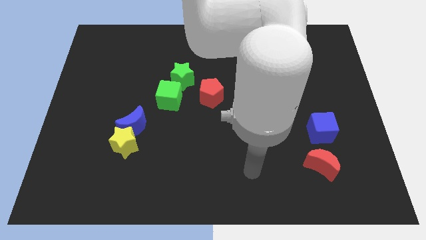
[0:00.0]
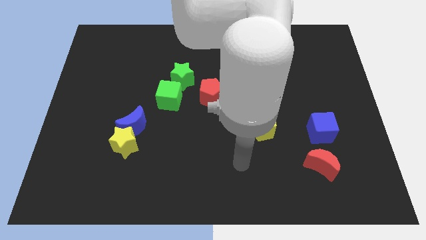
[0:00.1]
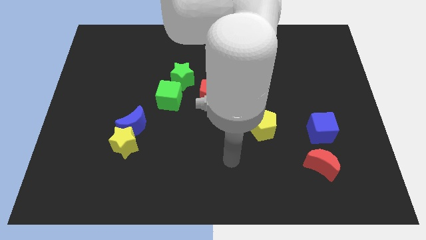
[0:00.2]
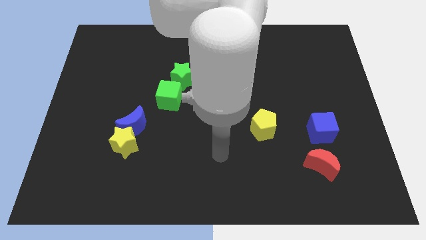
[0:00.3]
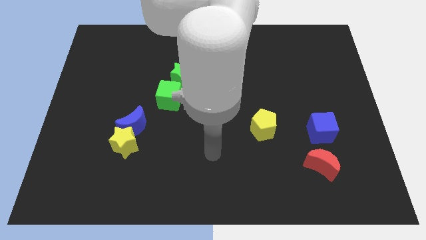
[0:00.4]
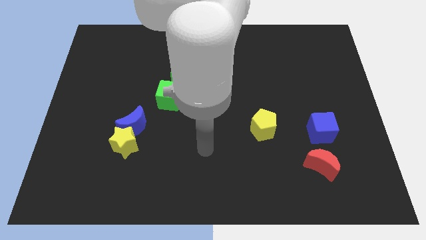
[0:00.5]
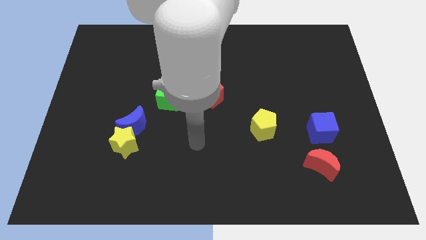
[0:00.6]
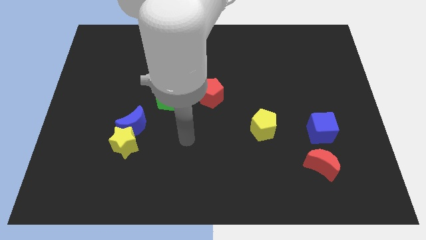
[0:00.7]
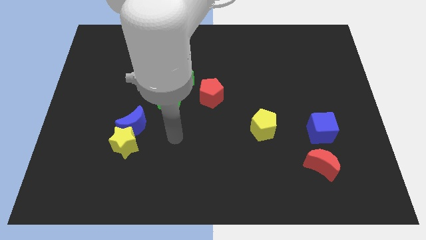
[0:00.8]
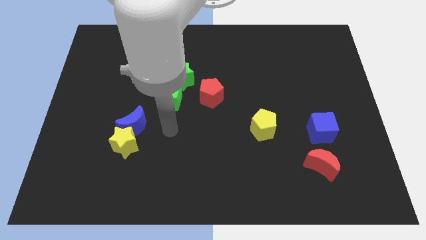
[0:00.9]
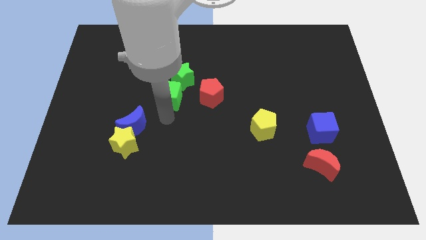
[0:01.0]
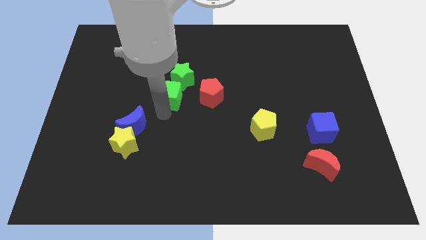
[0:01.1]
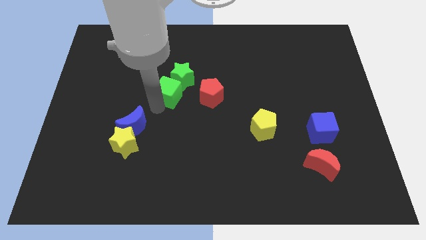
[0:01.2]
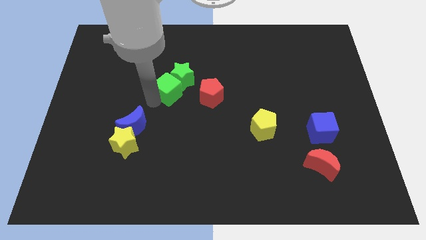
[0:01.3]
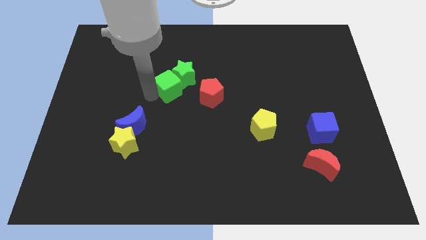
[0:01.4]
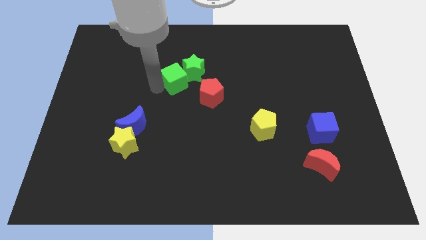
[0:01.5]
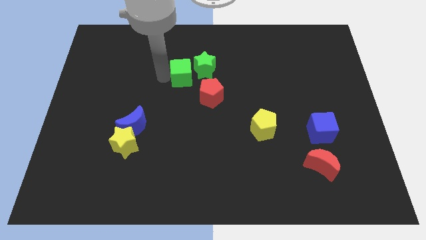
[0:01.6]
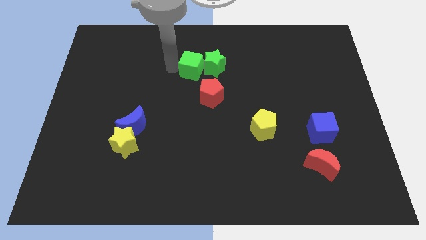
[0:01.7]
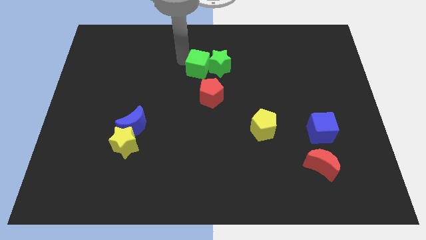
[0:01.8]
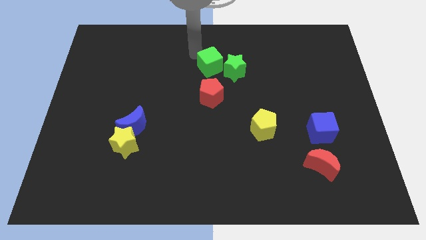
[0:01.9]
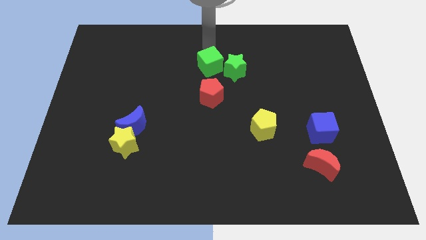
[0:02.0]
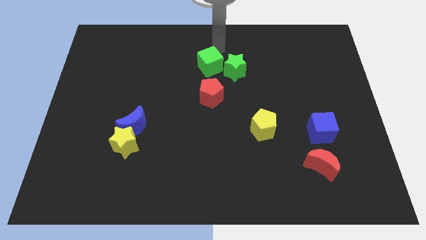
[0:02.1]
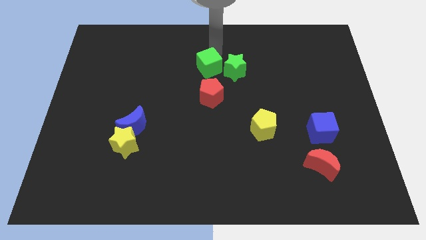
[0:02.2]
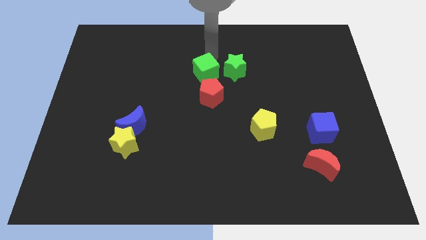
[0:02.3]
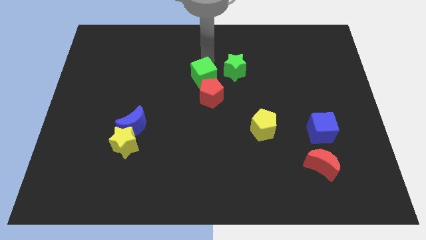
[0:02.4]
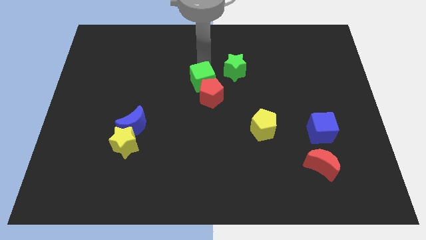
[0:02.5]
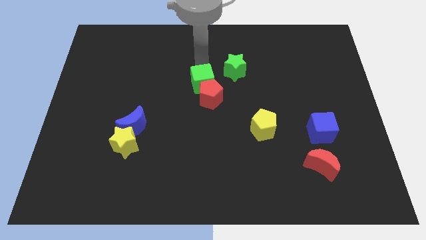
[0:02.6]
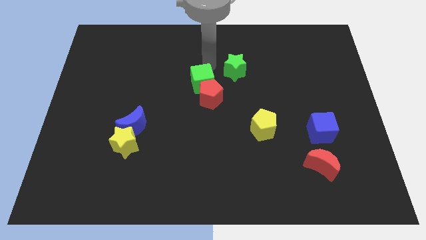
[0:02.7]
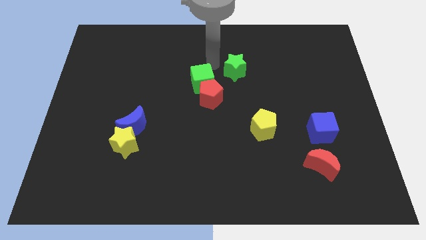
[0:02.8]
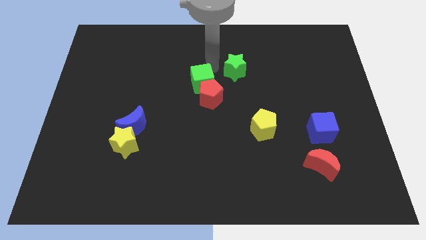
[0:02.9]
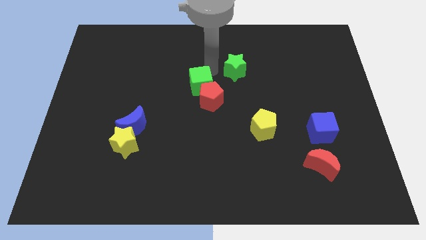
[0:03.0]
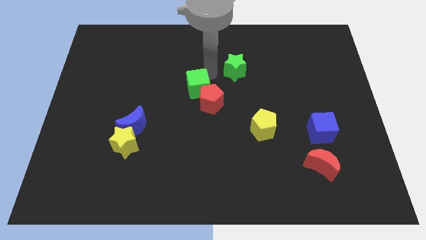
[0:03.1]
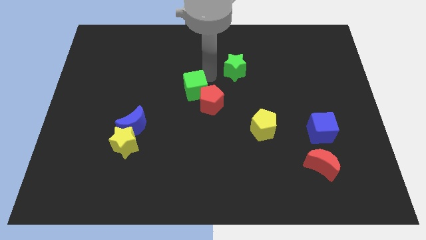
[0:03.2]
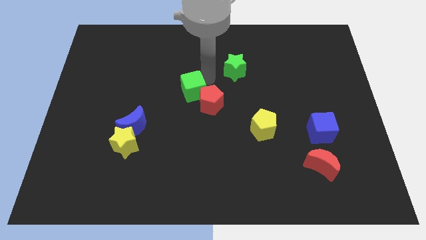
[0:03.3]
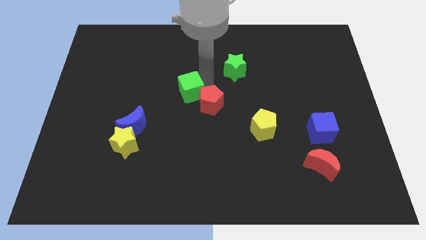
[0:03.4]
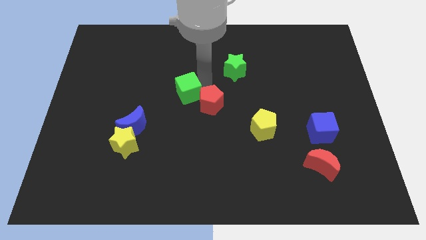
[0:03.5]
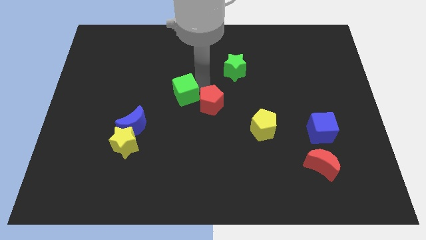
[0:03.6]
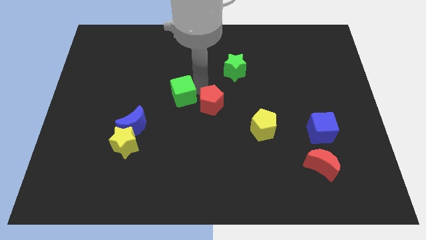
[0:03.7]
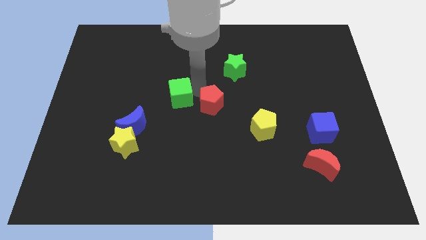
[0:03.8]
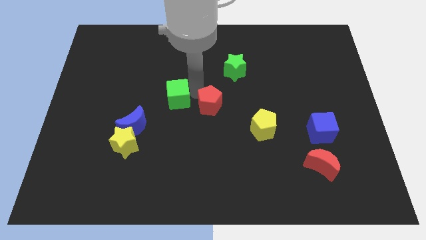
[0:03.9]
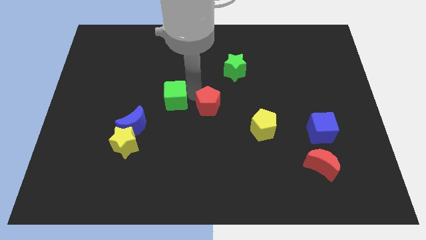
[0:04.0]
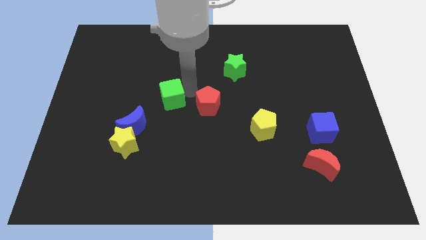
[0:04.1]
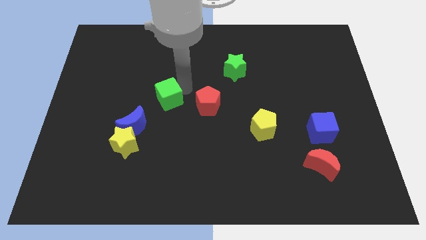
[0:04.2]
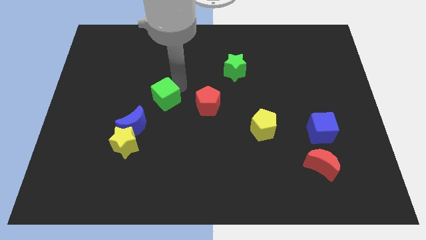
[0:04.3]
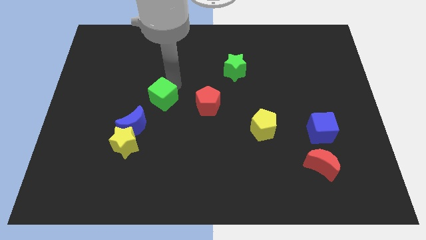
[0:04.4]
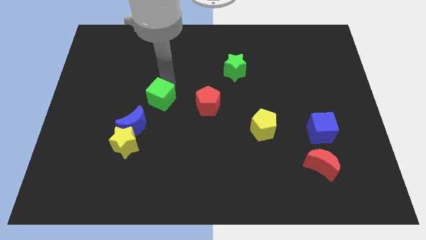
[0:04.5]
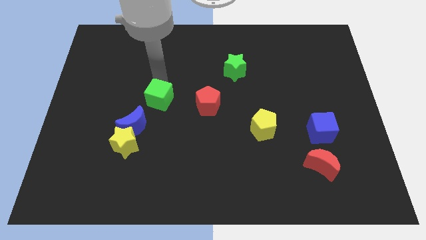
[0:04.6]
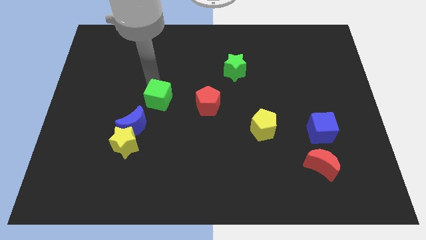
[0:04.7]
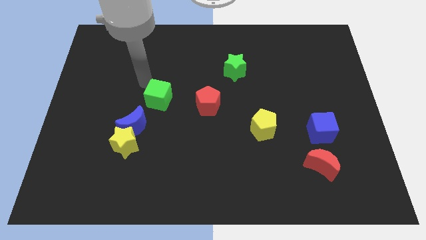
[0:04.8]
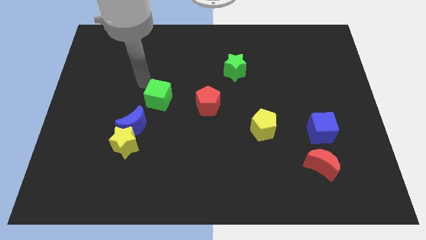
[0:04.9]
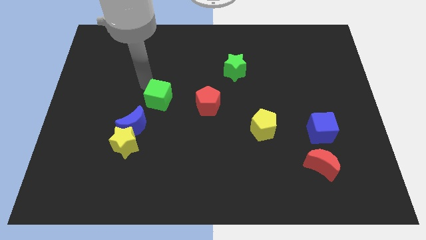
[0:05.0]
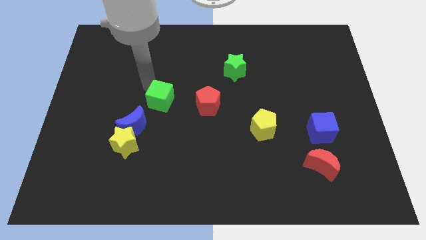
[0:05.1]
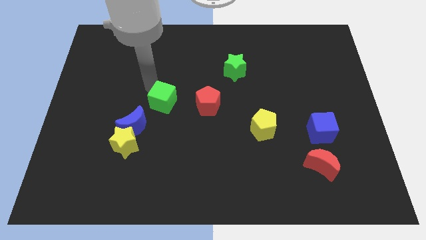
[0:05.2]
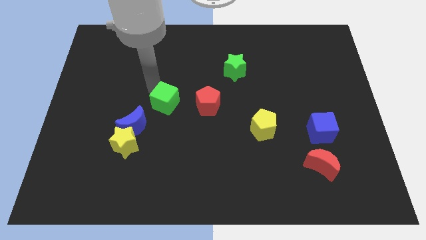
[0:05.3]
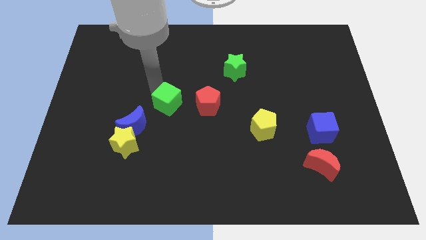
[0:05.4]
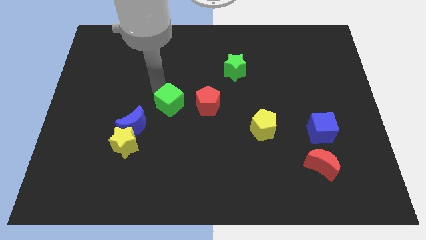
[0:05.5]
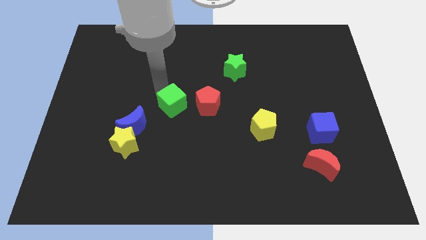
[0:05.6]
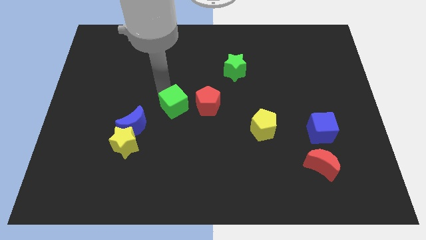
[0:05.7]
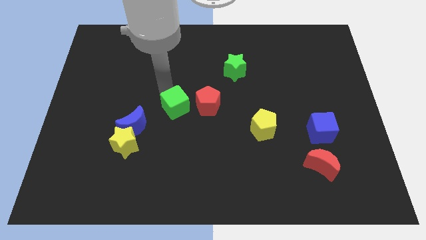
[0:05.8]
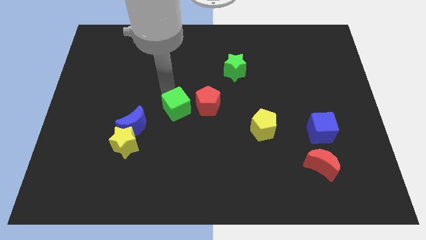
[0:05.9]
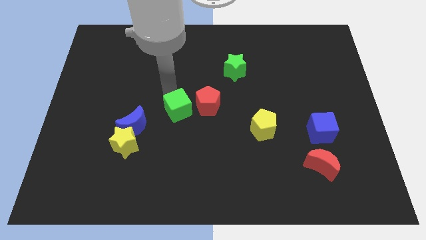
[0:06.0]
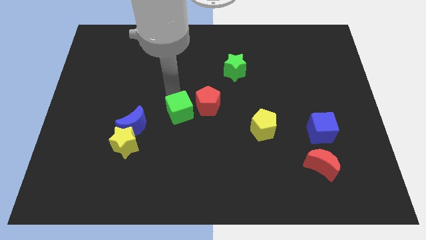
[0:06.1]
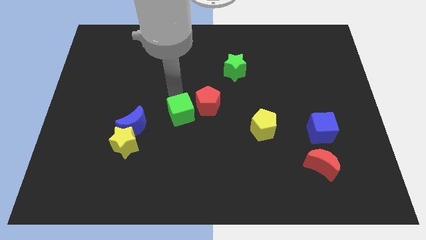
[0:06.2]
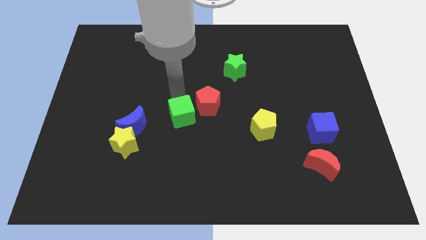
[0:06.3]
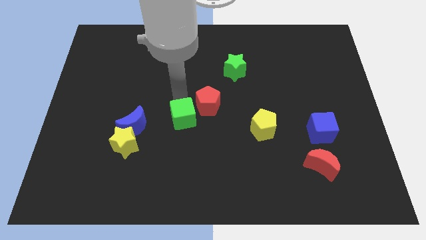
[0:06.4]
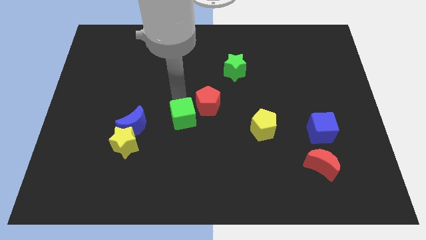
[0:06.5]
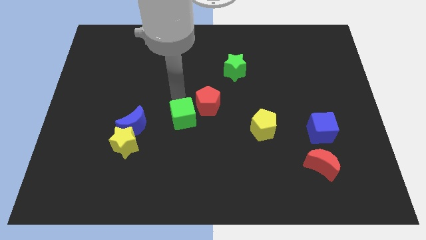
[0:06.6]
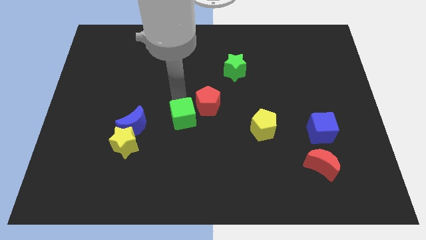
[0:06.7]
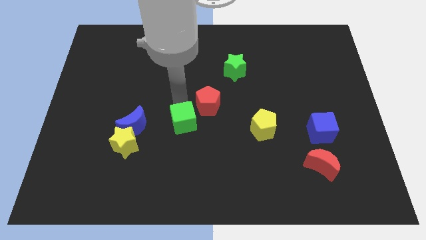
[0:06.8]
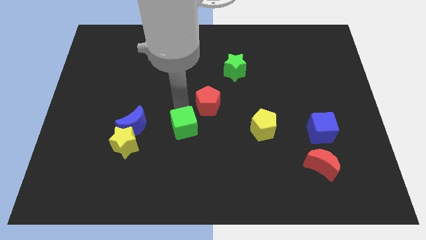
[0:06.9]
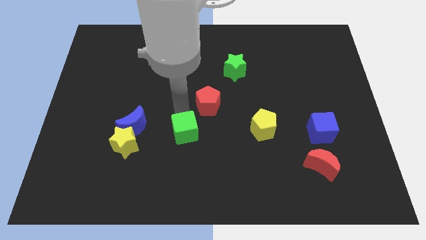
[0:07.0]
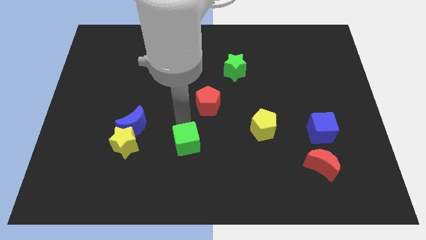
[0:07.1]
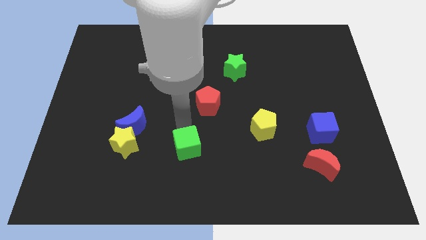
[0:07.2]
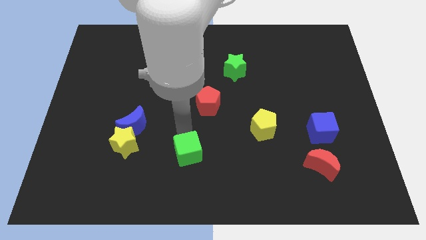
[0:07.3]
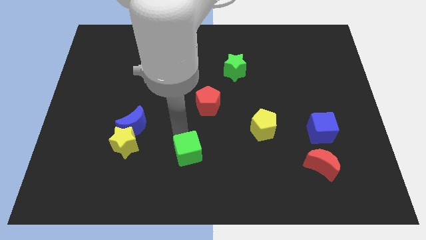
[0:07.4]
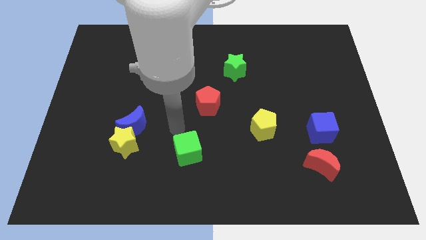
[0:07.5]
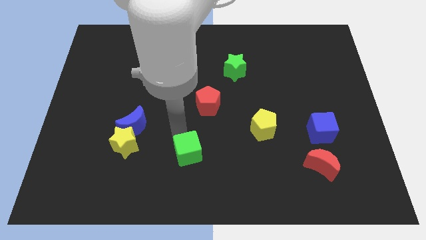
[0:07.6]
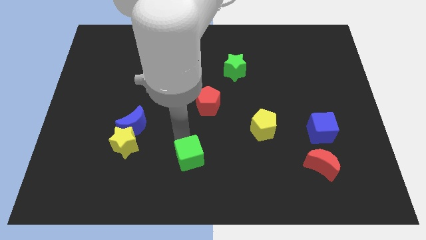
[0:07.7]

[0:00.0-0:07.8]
move the green cube to the bottom side
